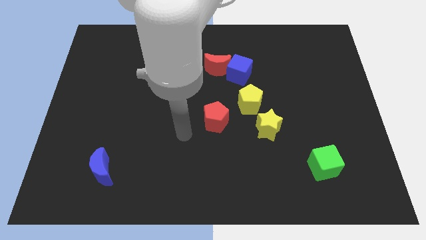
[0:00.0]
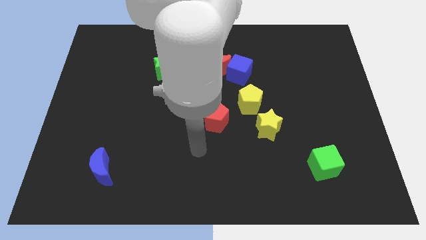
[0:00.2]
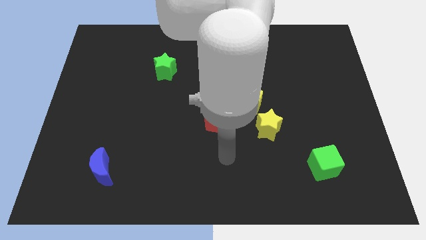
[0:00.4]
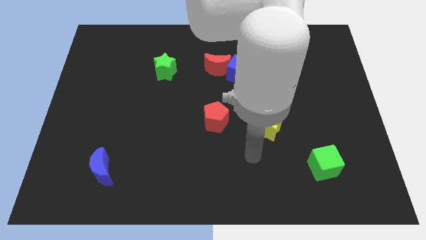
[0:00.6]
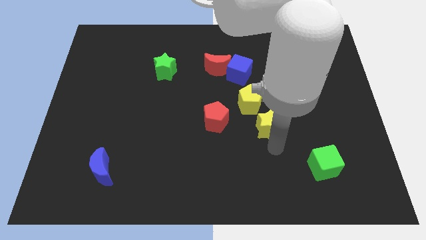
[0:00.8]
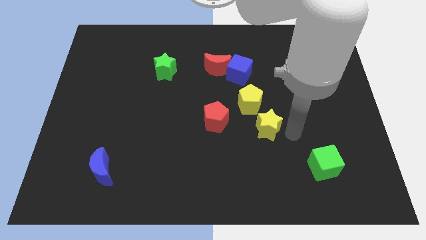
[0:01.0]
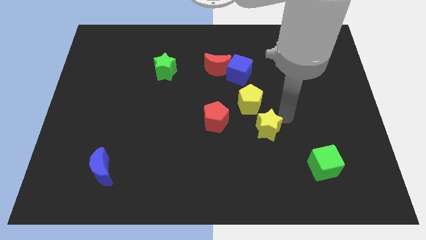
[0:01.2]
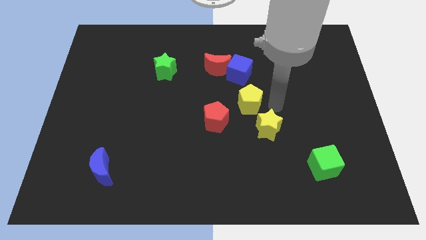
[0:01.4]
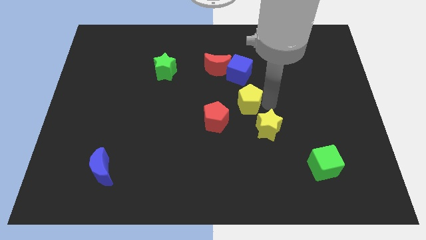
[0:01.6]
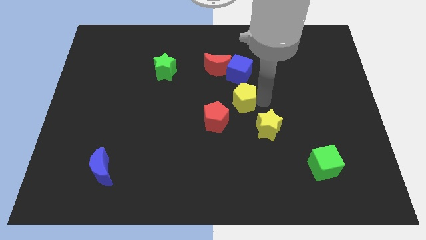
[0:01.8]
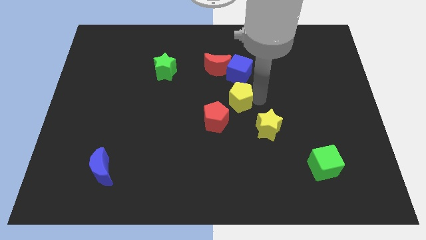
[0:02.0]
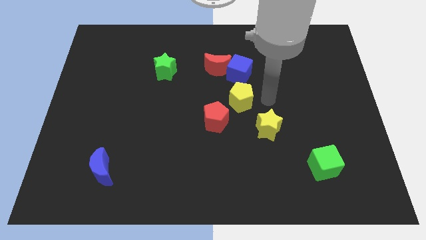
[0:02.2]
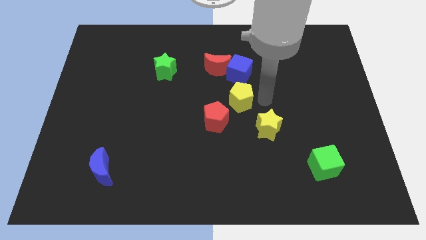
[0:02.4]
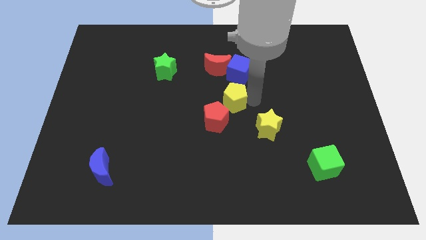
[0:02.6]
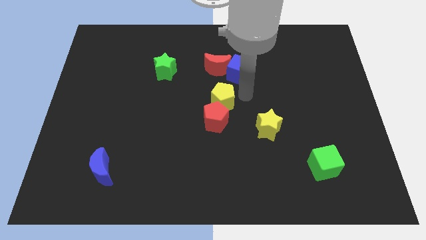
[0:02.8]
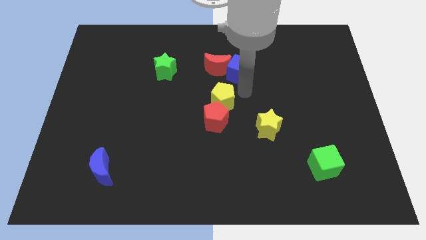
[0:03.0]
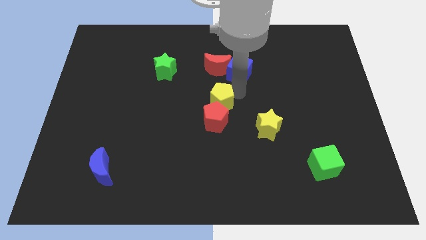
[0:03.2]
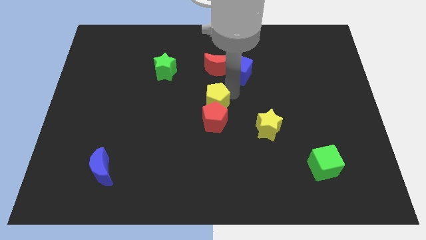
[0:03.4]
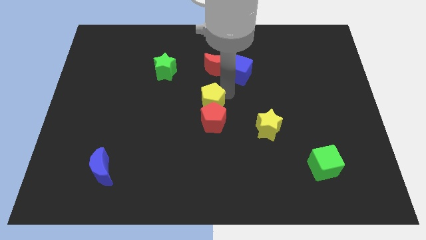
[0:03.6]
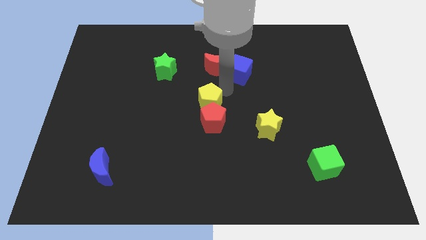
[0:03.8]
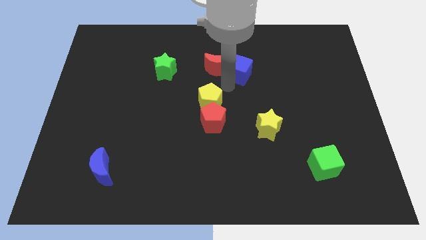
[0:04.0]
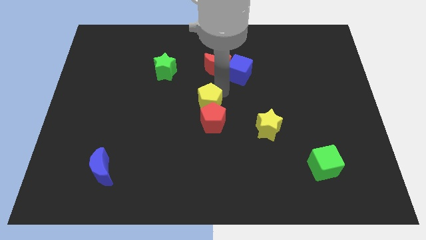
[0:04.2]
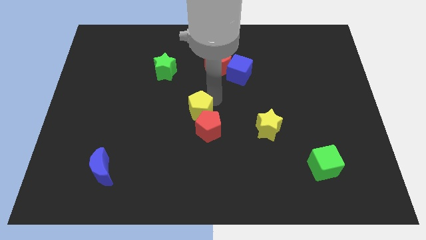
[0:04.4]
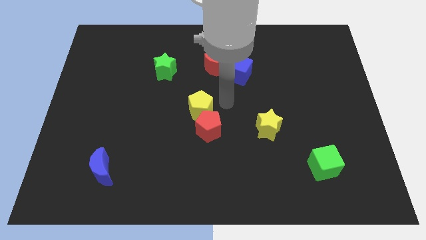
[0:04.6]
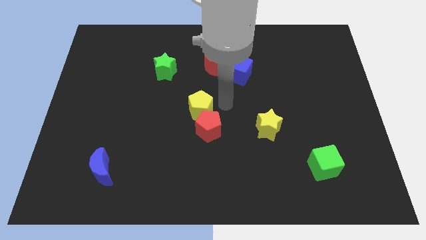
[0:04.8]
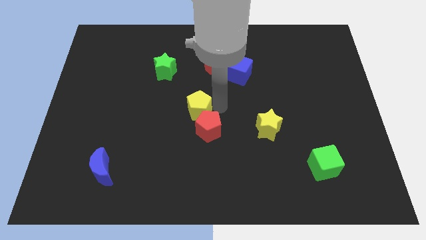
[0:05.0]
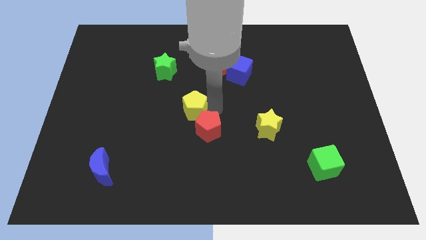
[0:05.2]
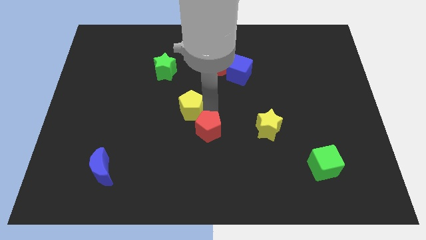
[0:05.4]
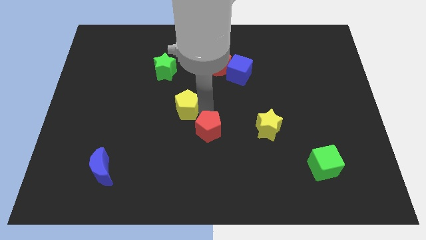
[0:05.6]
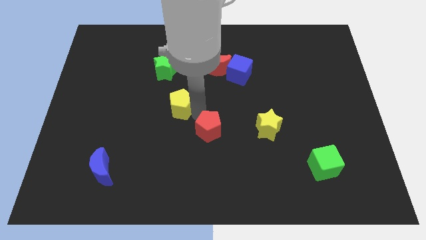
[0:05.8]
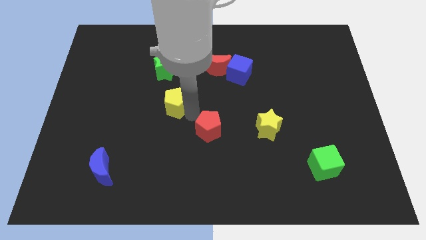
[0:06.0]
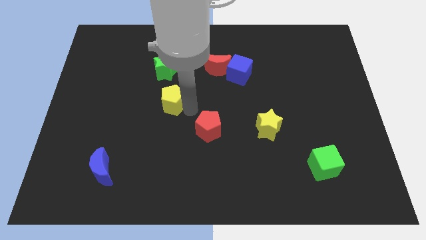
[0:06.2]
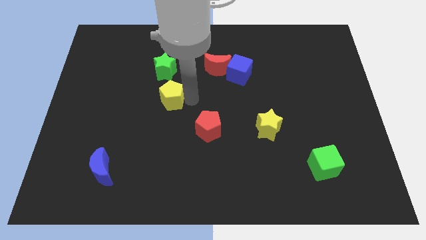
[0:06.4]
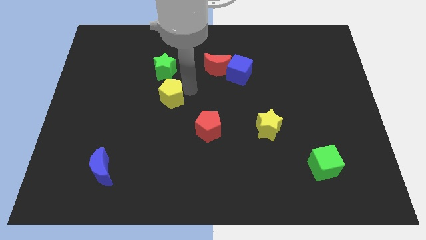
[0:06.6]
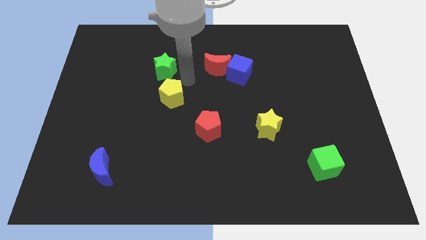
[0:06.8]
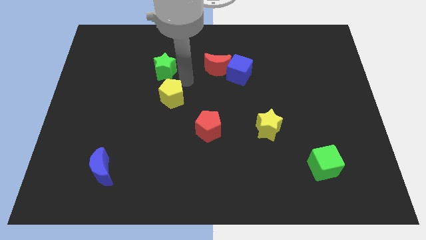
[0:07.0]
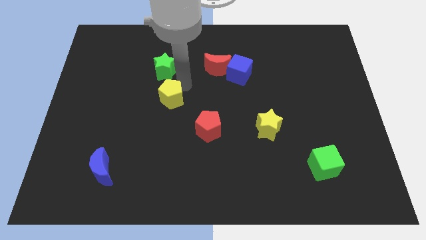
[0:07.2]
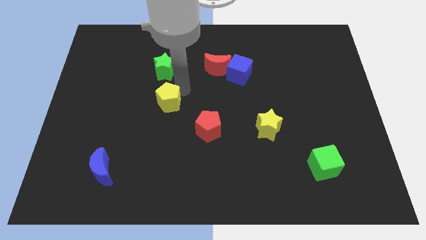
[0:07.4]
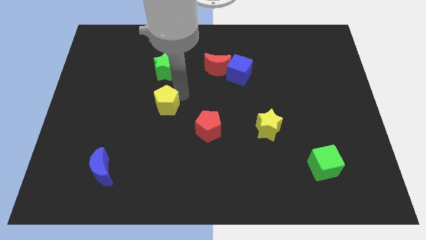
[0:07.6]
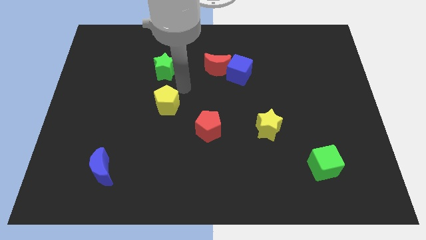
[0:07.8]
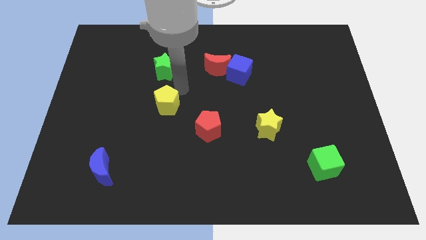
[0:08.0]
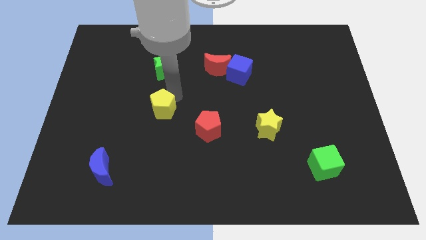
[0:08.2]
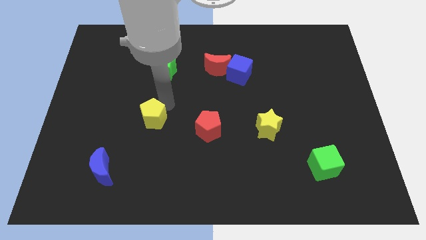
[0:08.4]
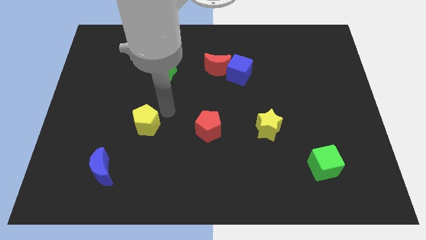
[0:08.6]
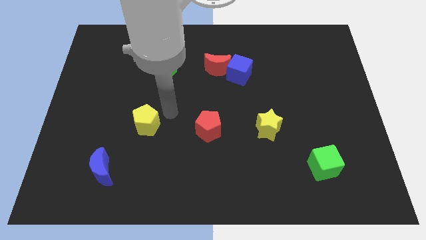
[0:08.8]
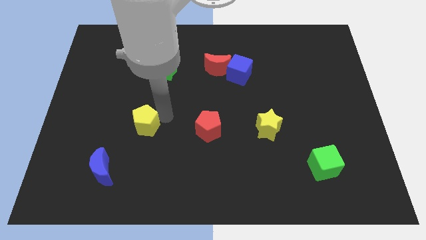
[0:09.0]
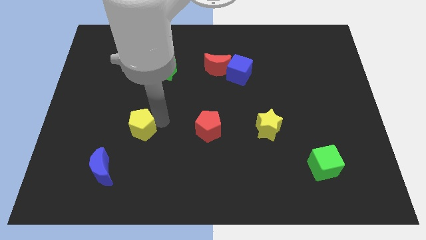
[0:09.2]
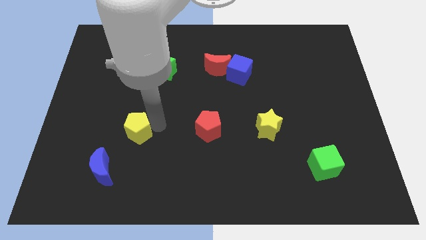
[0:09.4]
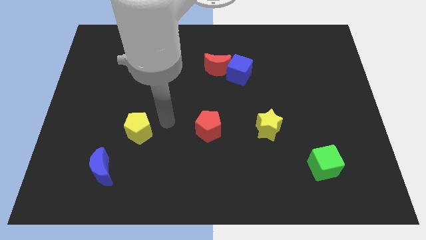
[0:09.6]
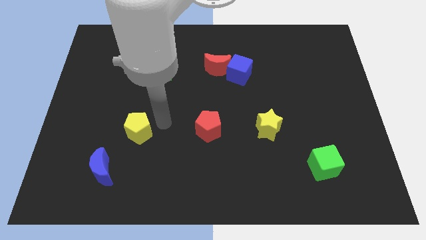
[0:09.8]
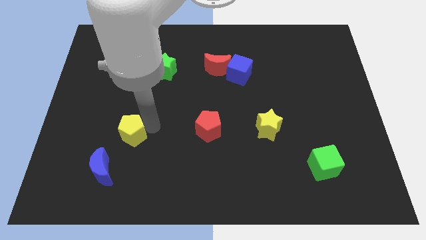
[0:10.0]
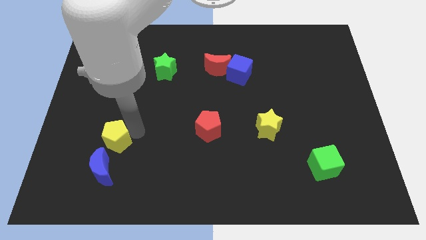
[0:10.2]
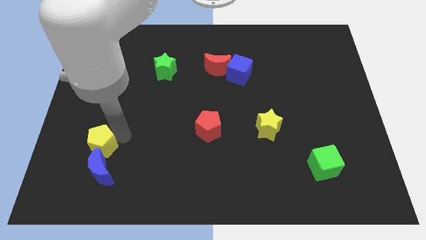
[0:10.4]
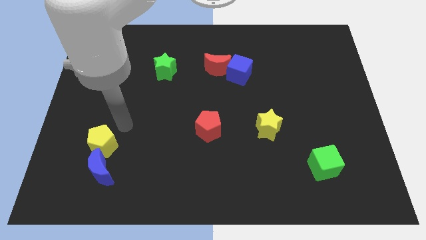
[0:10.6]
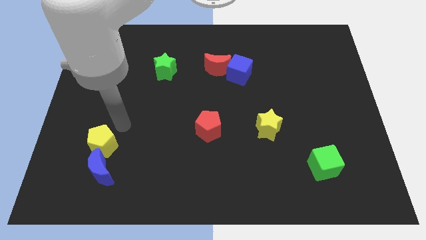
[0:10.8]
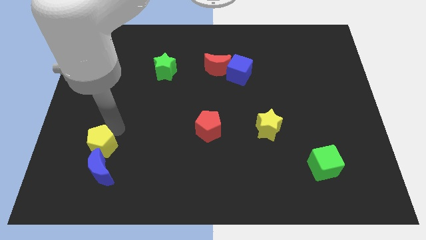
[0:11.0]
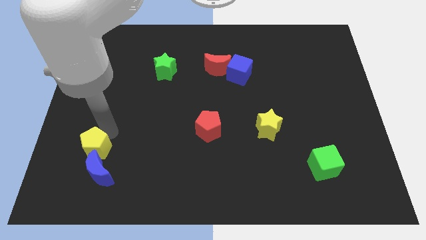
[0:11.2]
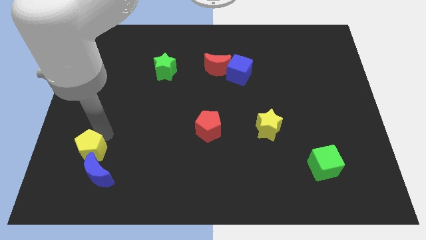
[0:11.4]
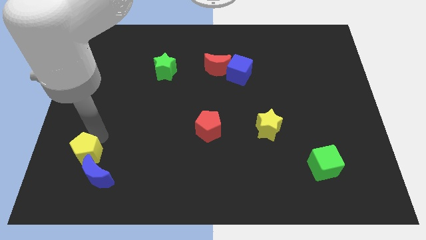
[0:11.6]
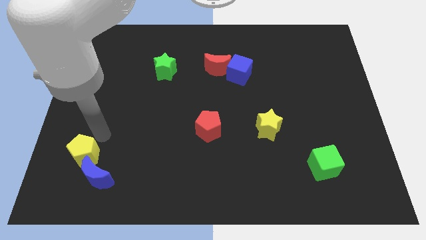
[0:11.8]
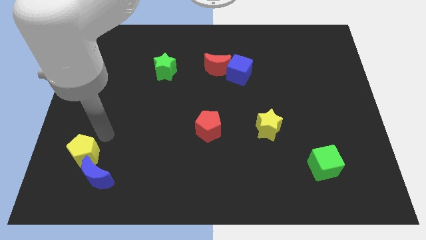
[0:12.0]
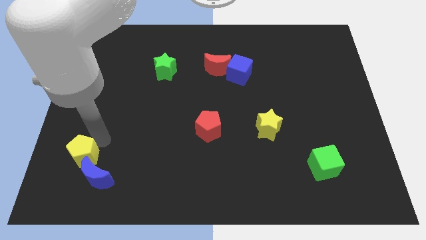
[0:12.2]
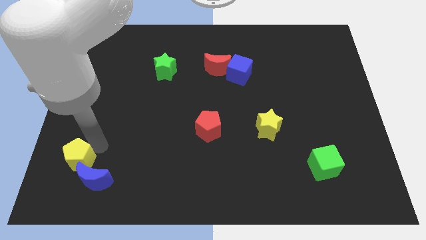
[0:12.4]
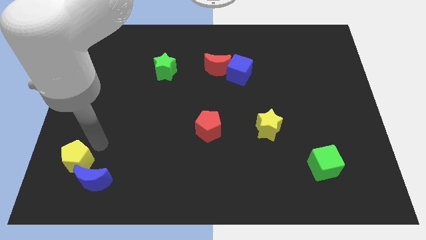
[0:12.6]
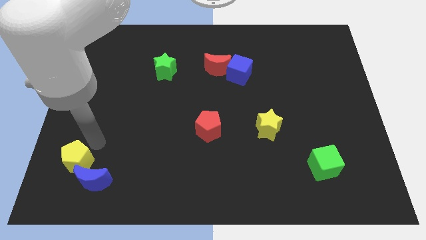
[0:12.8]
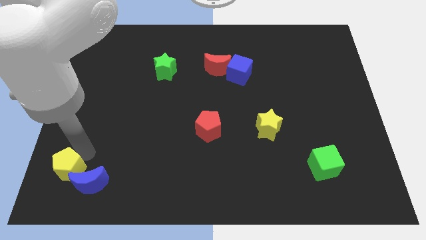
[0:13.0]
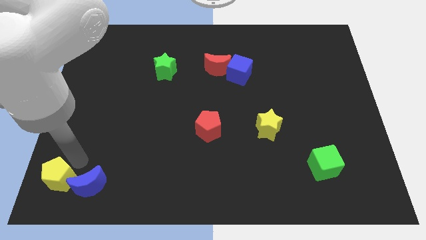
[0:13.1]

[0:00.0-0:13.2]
push the yellow pentagon to the bottom left

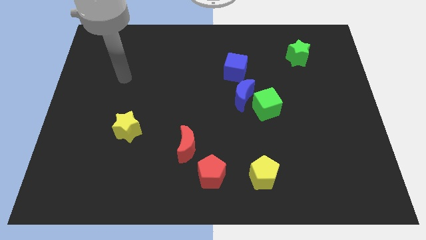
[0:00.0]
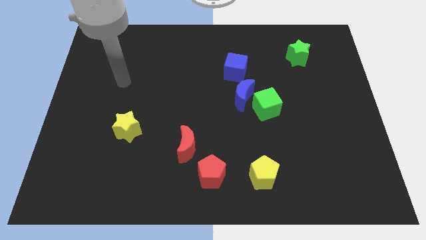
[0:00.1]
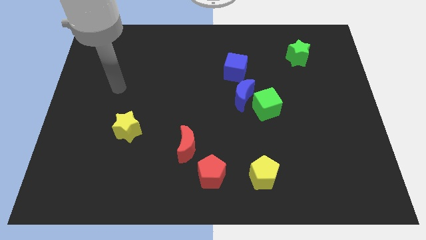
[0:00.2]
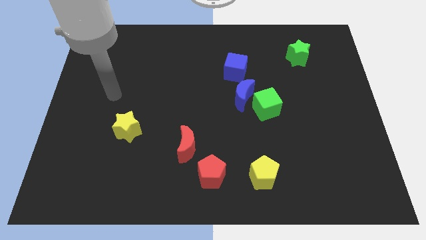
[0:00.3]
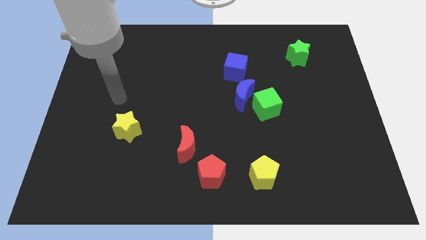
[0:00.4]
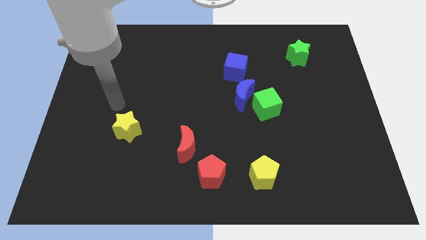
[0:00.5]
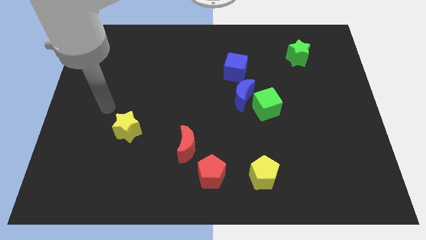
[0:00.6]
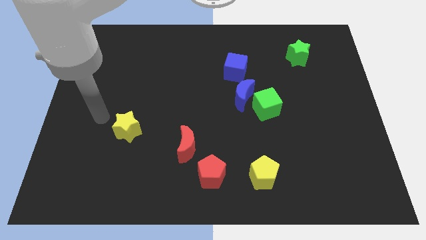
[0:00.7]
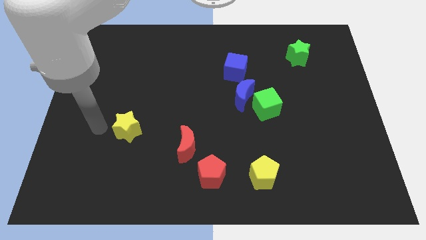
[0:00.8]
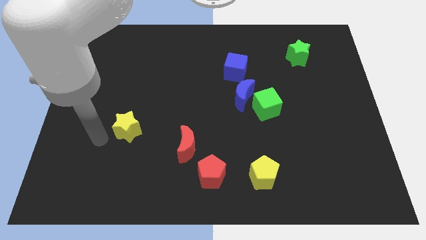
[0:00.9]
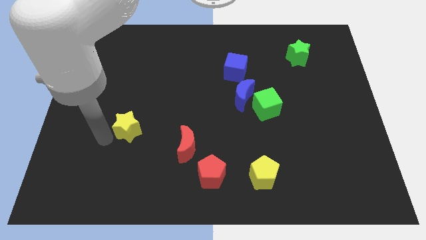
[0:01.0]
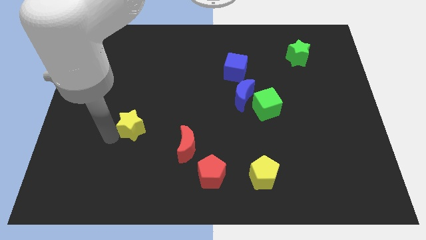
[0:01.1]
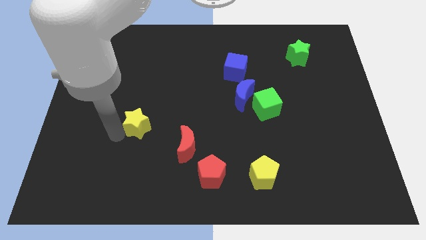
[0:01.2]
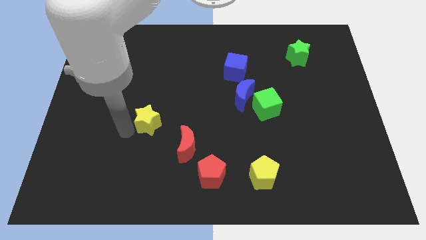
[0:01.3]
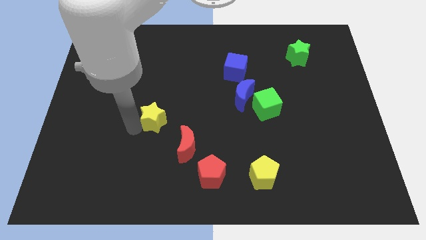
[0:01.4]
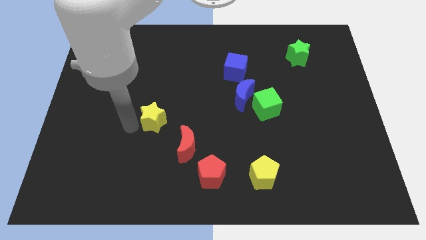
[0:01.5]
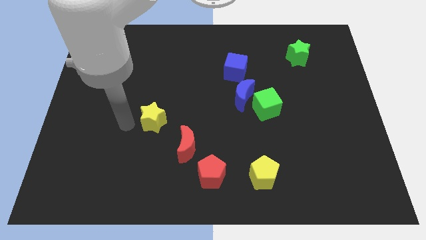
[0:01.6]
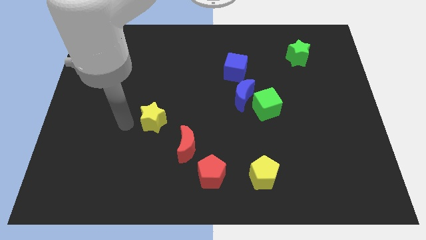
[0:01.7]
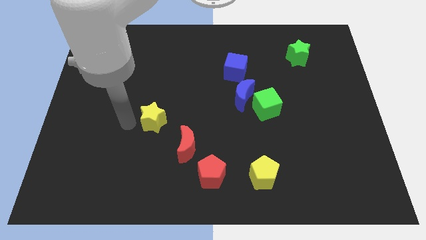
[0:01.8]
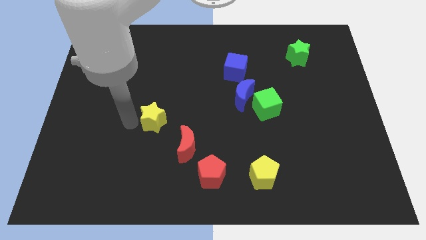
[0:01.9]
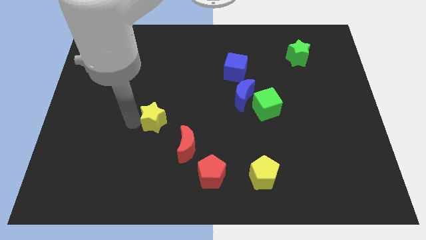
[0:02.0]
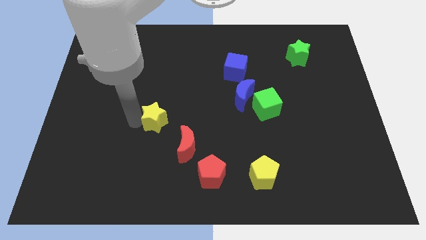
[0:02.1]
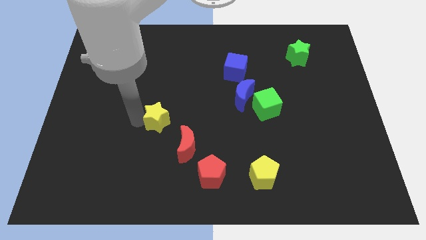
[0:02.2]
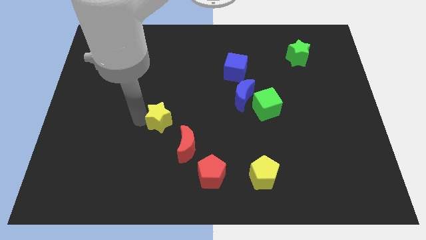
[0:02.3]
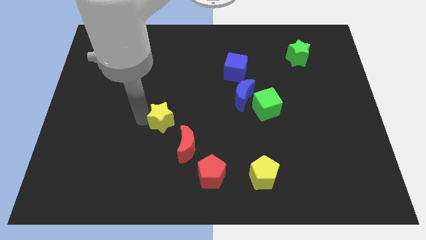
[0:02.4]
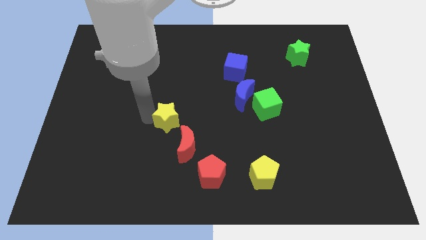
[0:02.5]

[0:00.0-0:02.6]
slide the yellow star to the middle of the board
